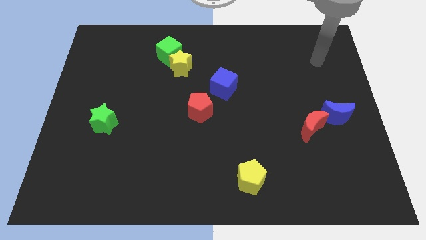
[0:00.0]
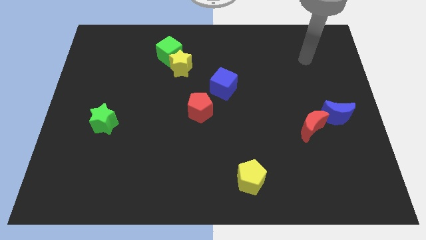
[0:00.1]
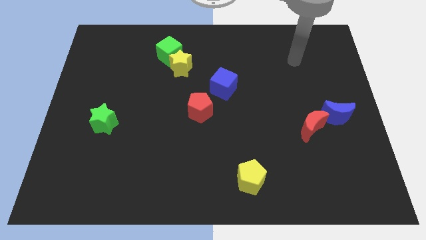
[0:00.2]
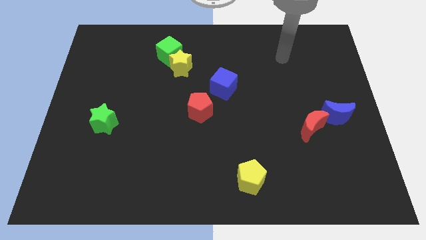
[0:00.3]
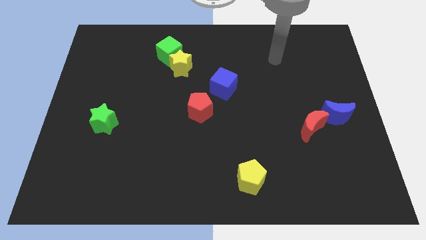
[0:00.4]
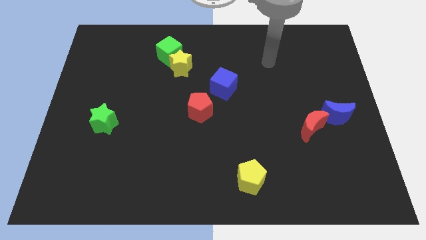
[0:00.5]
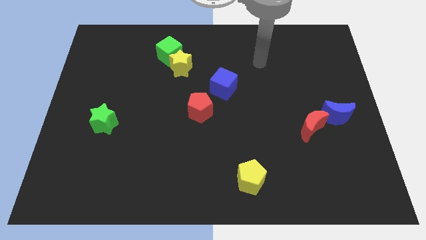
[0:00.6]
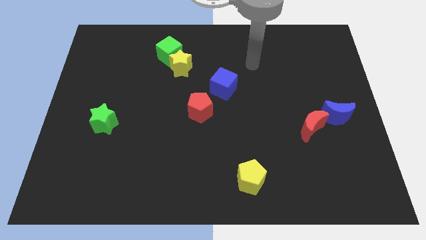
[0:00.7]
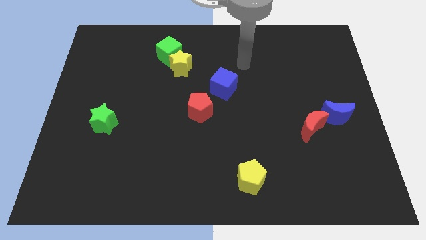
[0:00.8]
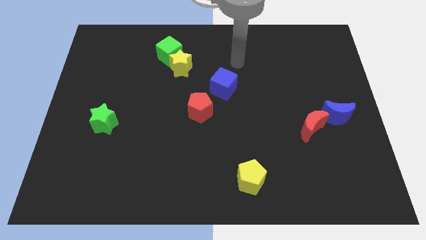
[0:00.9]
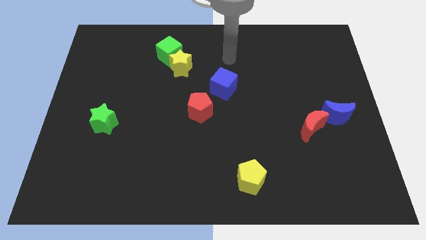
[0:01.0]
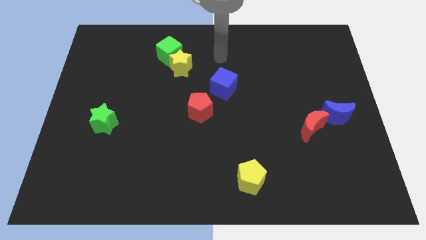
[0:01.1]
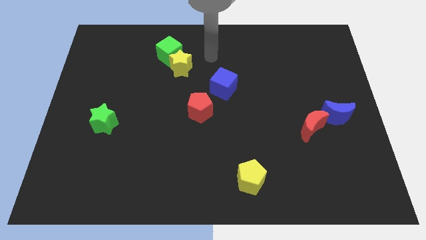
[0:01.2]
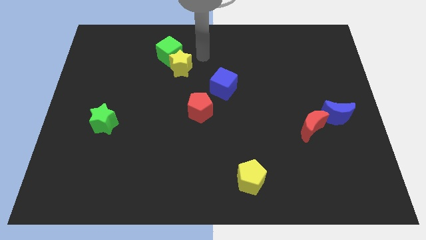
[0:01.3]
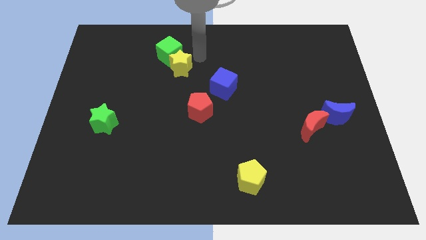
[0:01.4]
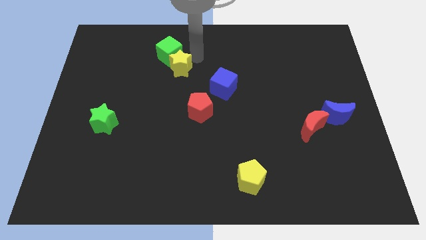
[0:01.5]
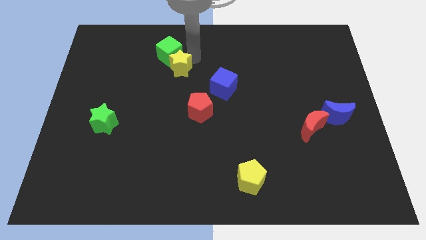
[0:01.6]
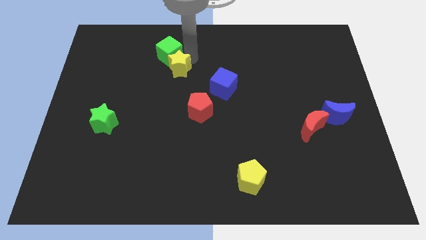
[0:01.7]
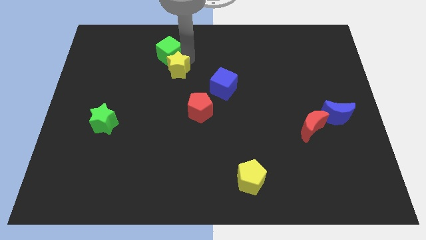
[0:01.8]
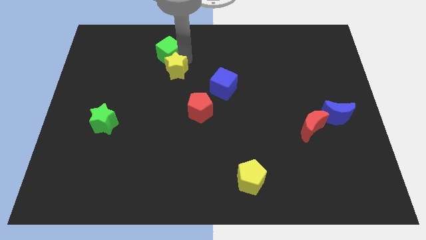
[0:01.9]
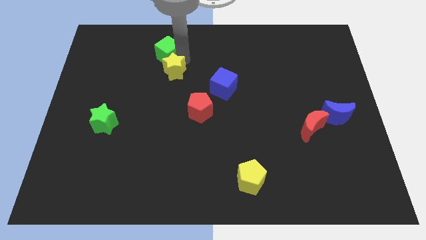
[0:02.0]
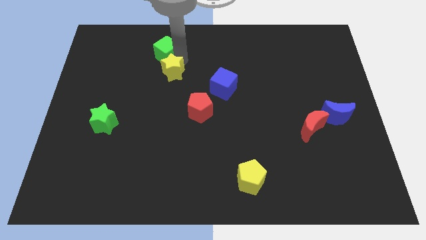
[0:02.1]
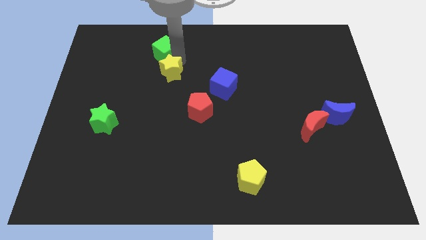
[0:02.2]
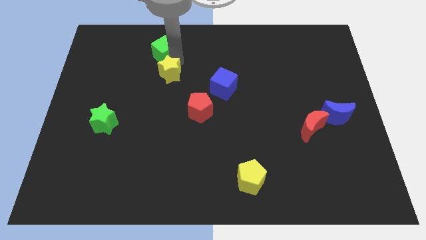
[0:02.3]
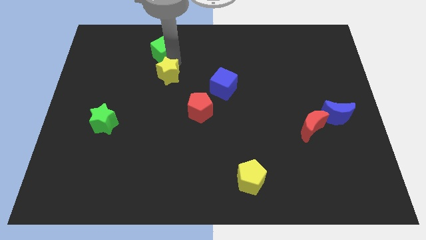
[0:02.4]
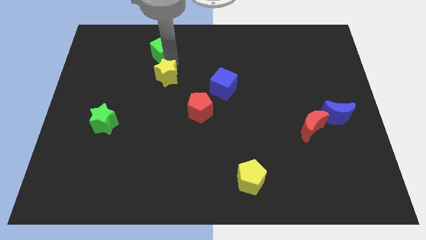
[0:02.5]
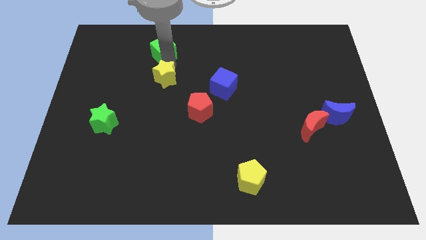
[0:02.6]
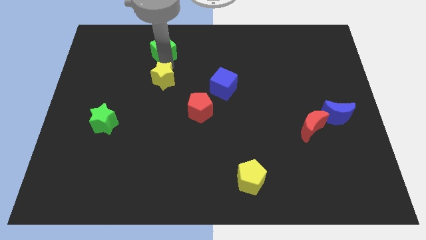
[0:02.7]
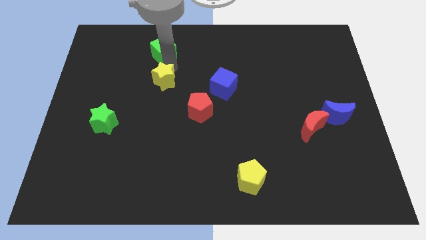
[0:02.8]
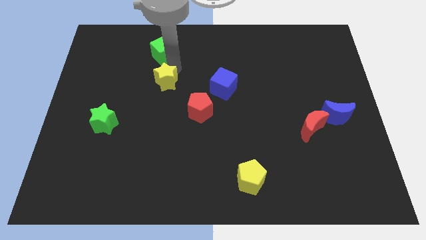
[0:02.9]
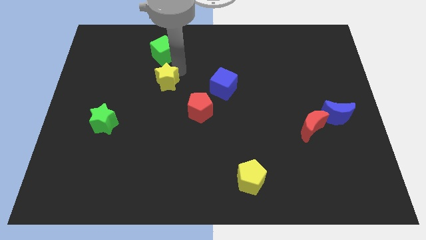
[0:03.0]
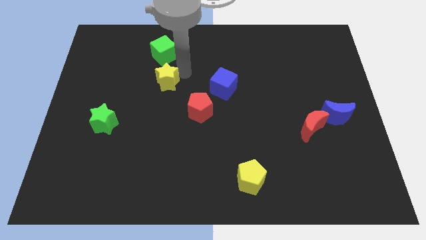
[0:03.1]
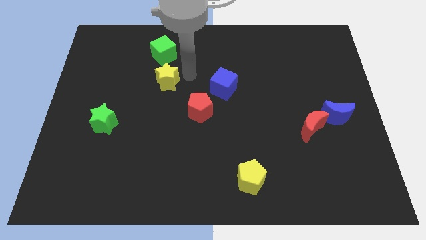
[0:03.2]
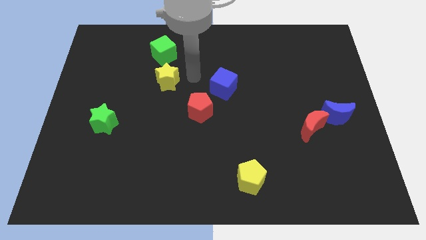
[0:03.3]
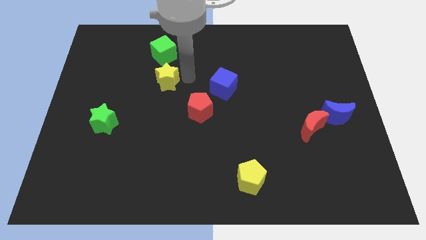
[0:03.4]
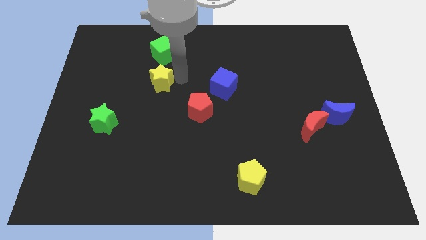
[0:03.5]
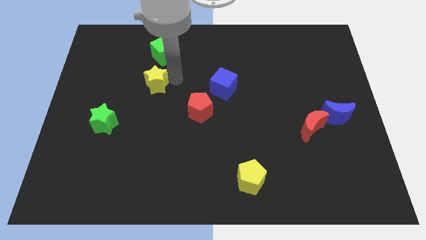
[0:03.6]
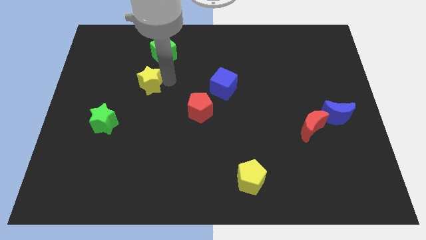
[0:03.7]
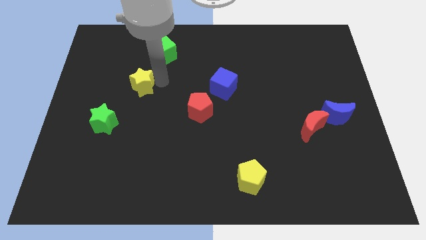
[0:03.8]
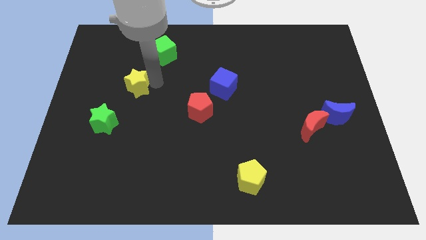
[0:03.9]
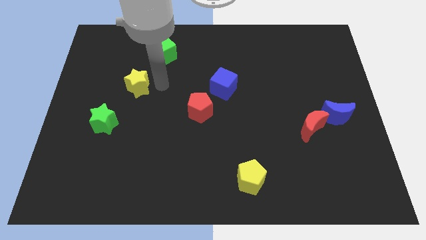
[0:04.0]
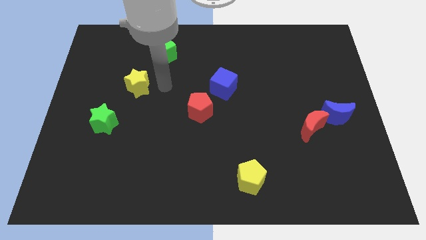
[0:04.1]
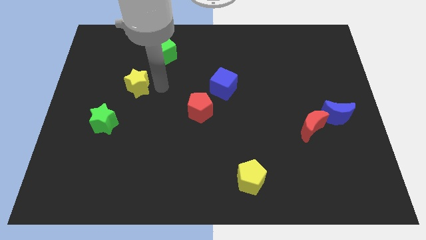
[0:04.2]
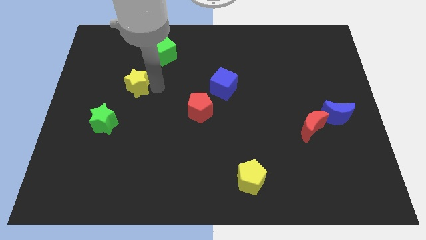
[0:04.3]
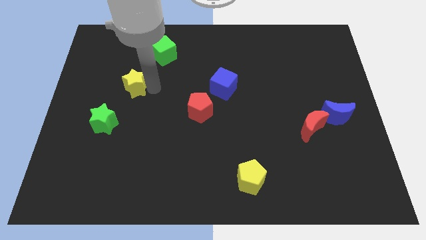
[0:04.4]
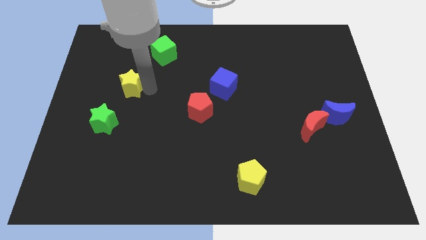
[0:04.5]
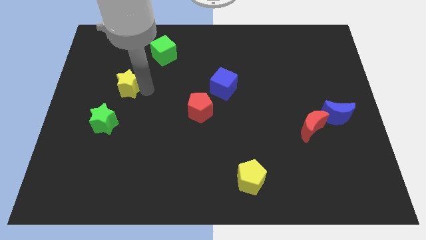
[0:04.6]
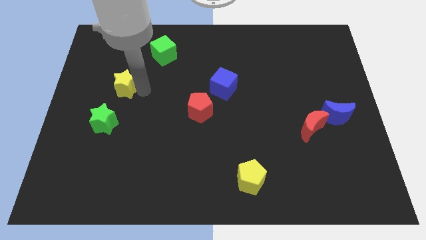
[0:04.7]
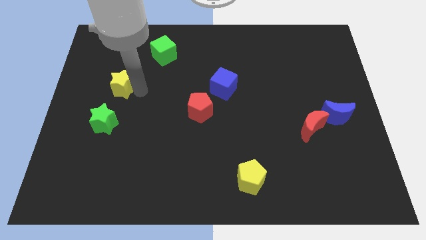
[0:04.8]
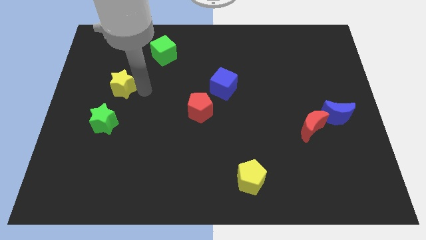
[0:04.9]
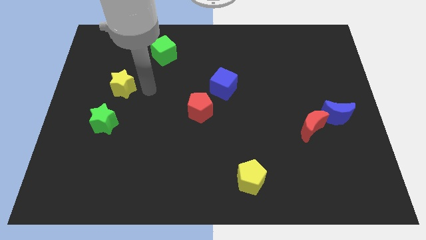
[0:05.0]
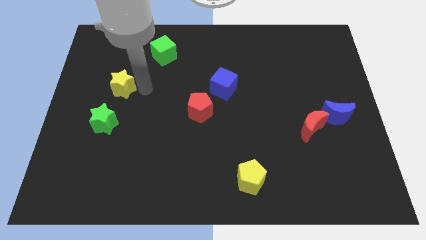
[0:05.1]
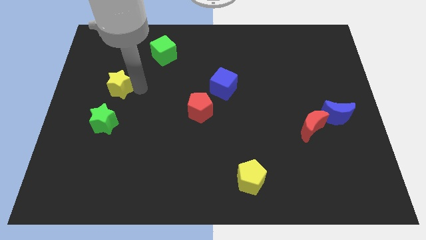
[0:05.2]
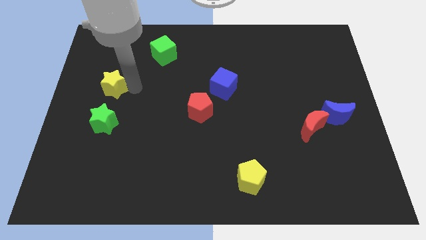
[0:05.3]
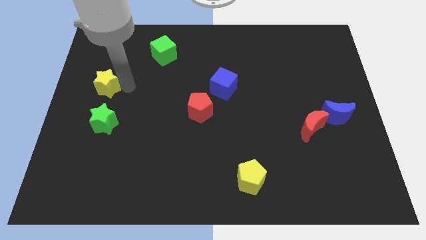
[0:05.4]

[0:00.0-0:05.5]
put the yellow star to the center left
